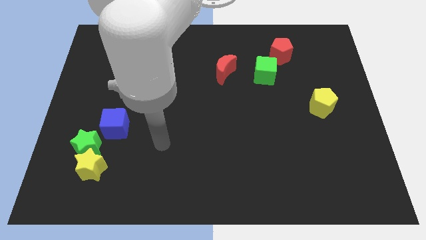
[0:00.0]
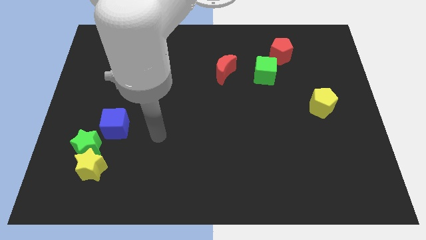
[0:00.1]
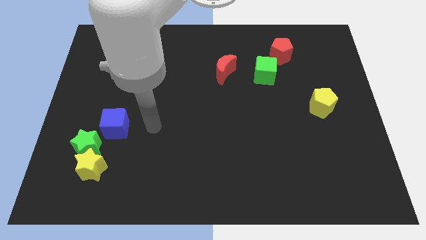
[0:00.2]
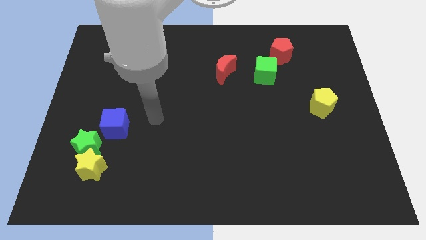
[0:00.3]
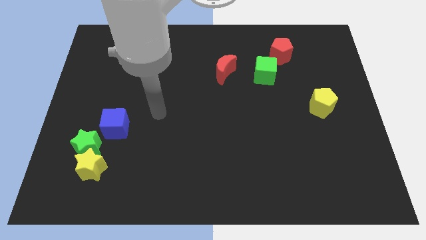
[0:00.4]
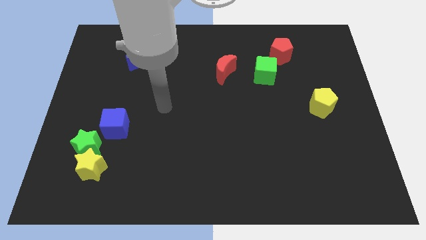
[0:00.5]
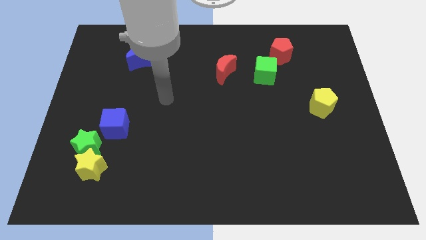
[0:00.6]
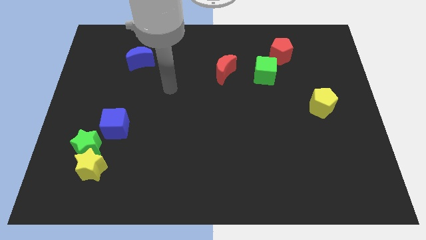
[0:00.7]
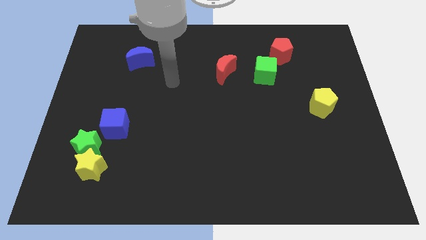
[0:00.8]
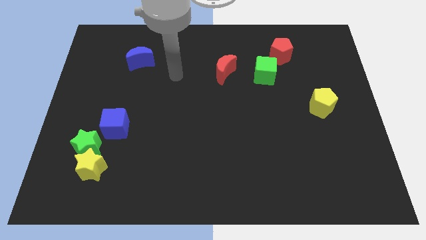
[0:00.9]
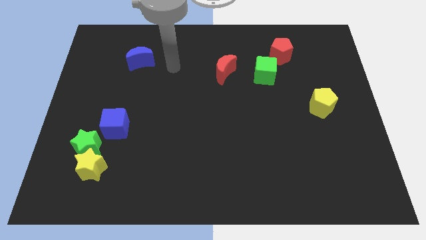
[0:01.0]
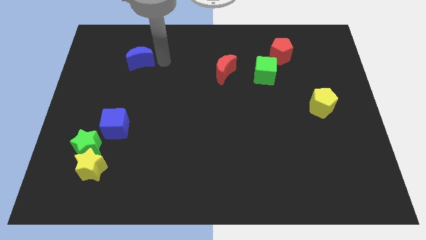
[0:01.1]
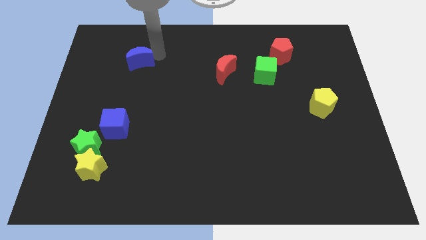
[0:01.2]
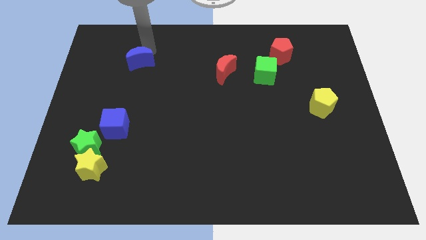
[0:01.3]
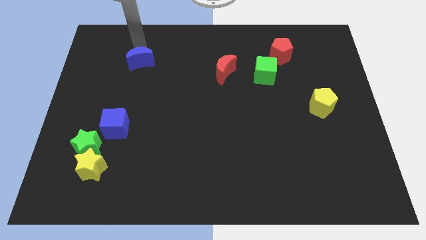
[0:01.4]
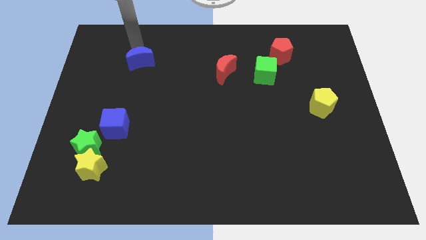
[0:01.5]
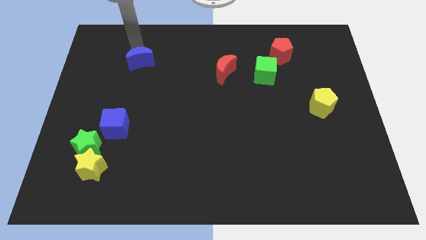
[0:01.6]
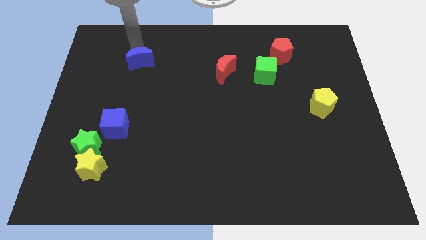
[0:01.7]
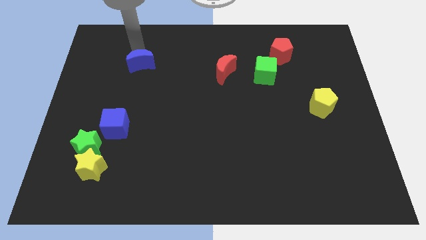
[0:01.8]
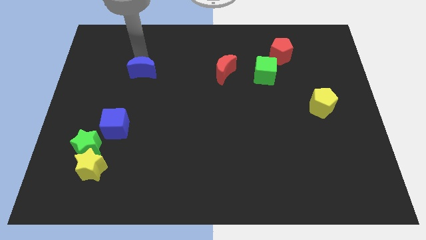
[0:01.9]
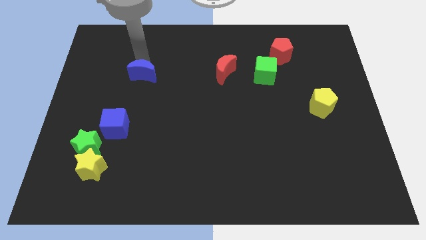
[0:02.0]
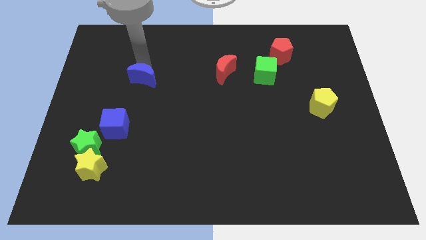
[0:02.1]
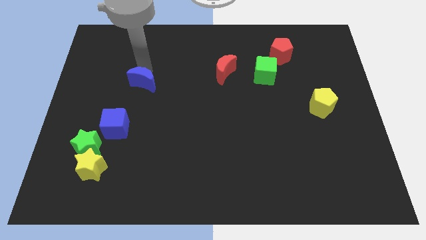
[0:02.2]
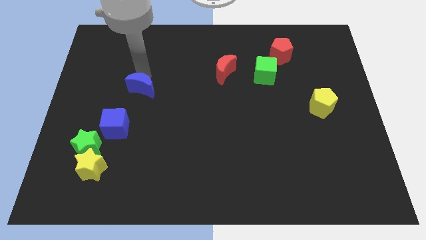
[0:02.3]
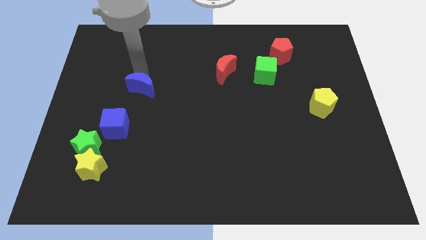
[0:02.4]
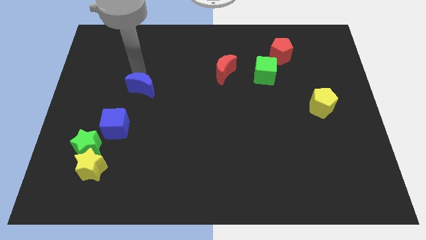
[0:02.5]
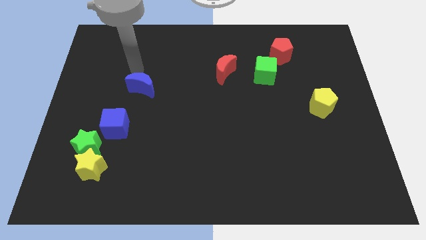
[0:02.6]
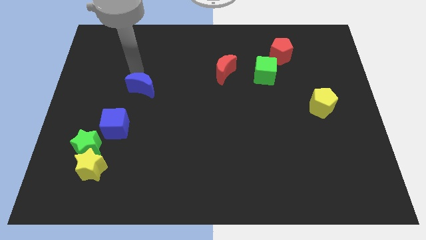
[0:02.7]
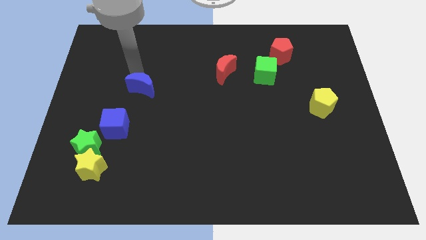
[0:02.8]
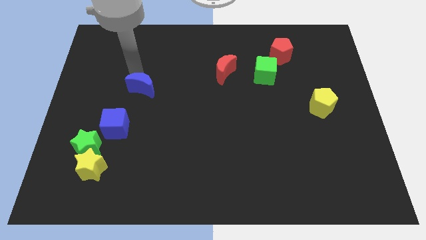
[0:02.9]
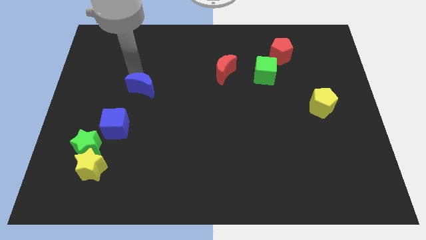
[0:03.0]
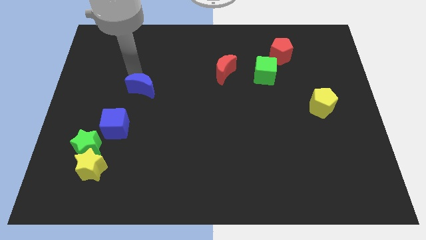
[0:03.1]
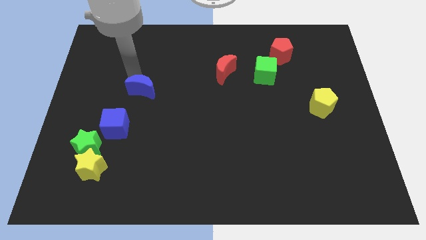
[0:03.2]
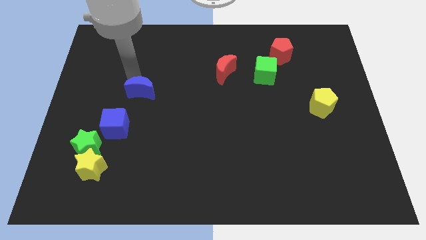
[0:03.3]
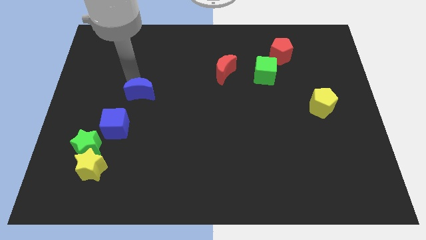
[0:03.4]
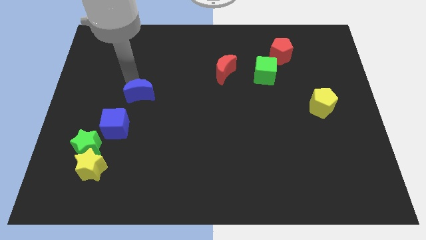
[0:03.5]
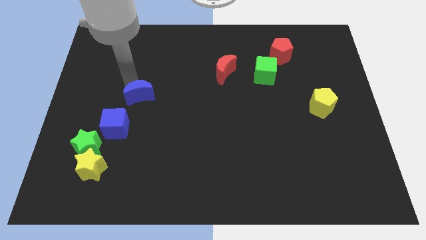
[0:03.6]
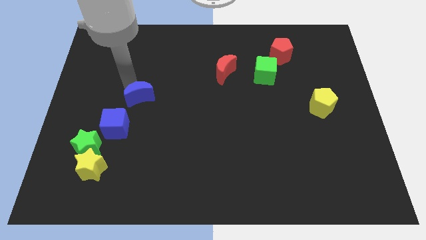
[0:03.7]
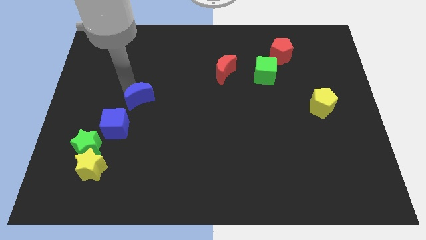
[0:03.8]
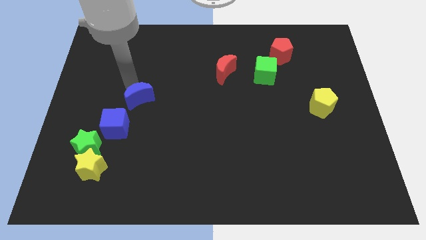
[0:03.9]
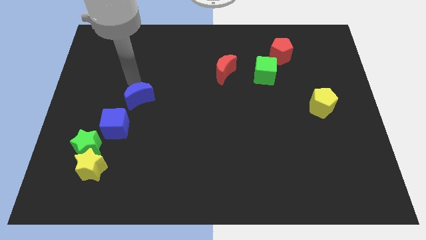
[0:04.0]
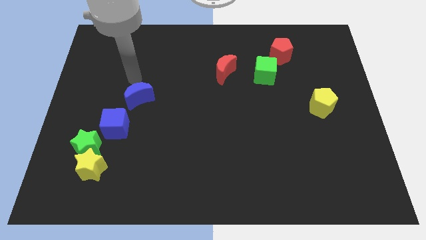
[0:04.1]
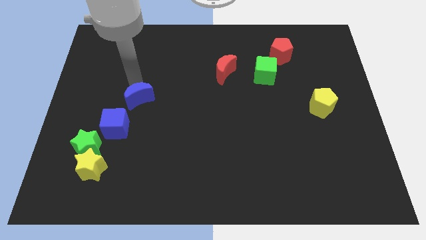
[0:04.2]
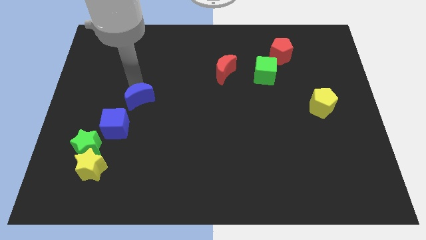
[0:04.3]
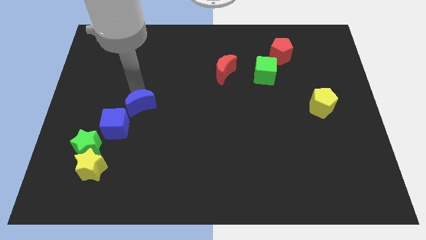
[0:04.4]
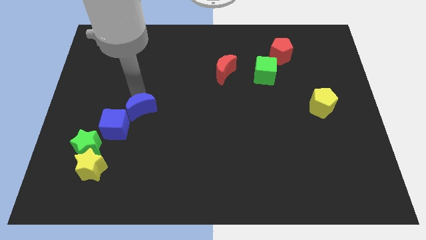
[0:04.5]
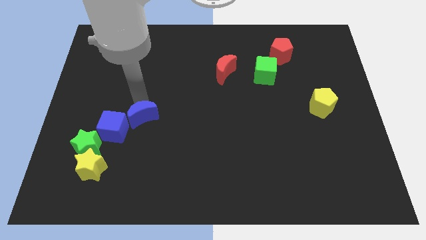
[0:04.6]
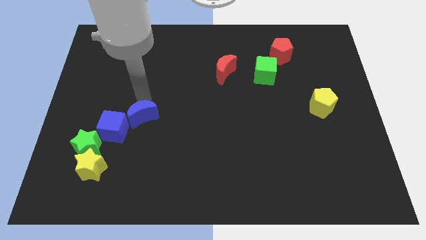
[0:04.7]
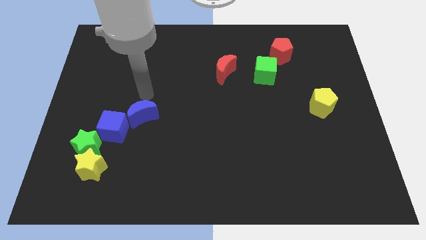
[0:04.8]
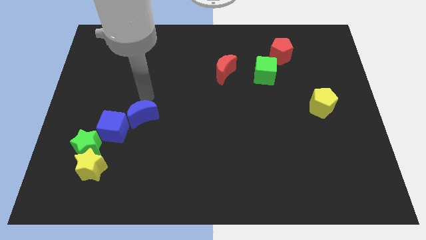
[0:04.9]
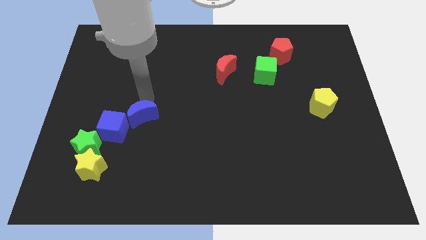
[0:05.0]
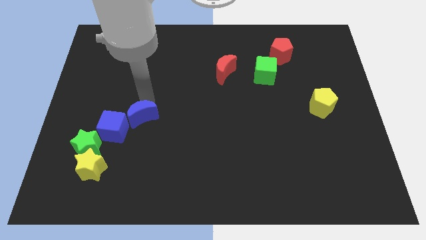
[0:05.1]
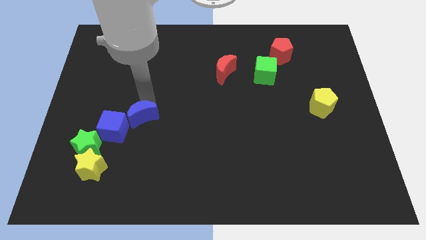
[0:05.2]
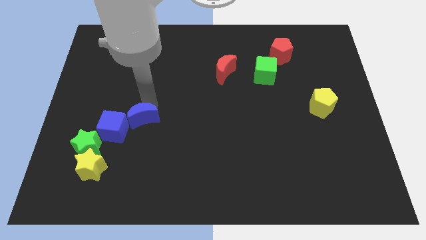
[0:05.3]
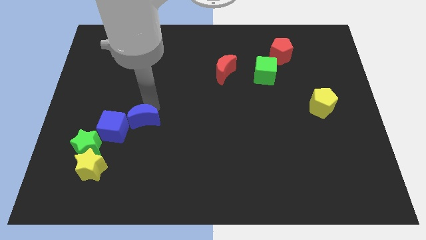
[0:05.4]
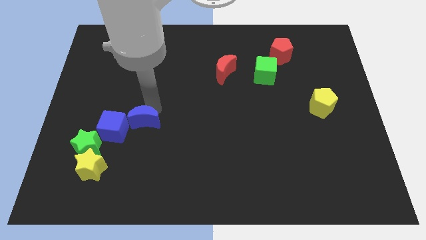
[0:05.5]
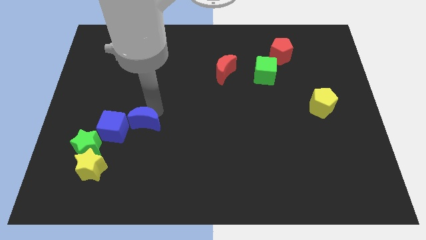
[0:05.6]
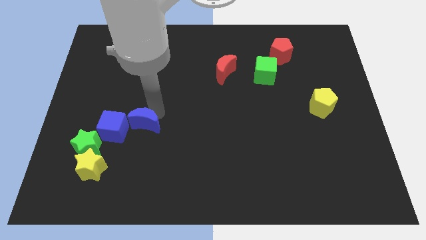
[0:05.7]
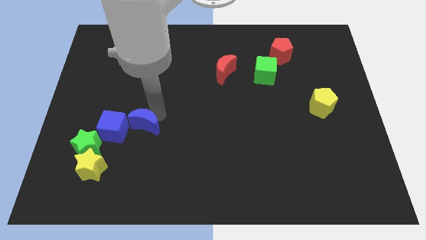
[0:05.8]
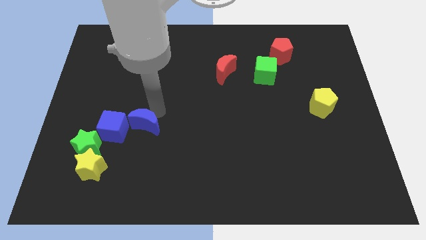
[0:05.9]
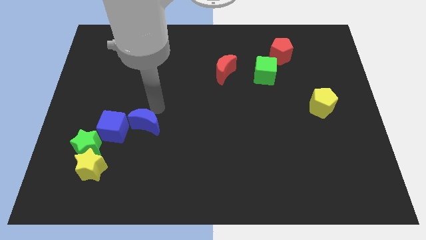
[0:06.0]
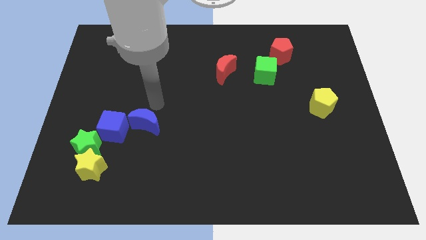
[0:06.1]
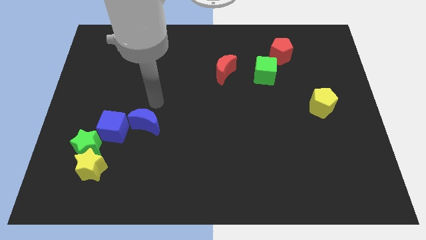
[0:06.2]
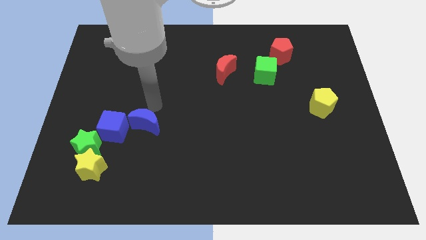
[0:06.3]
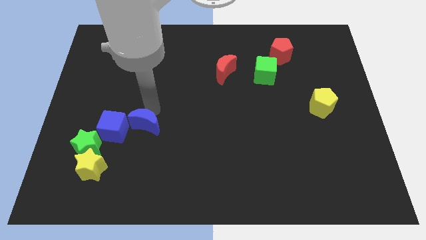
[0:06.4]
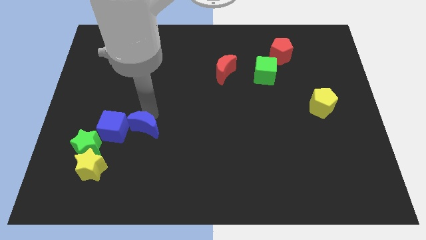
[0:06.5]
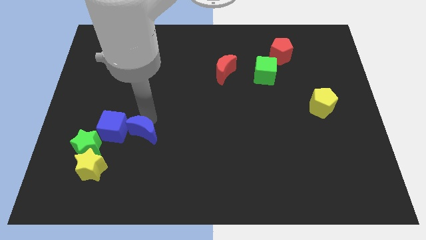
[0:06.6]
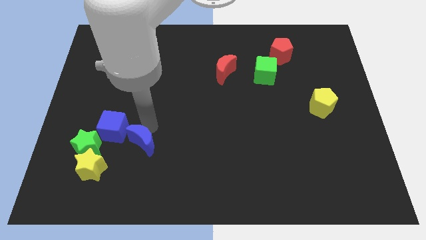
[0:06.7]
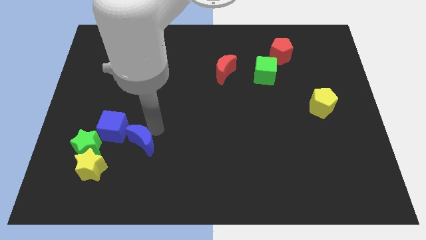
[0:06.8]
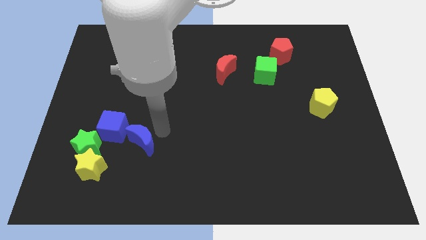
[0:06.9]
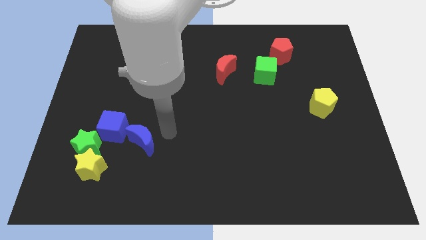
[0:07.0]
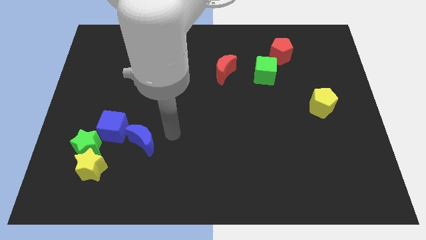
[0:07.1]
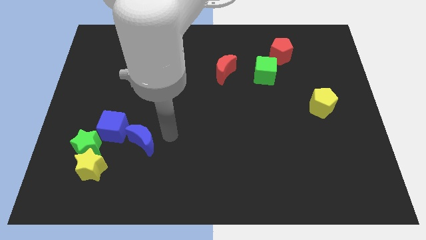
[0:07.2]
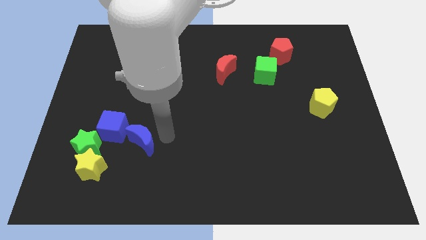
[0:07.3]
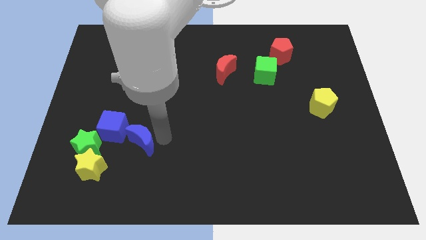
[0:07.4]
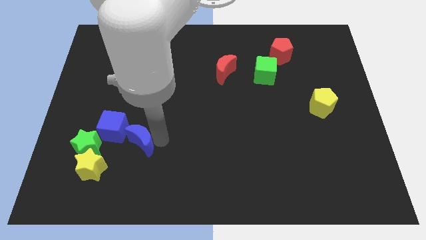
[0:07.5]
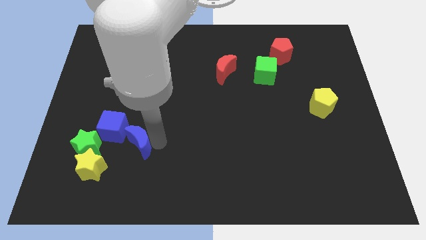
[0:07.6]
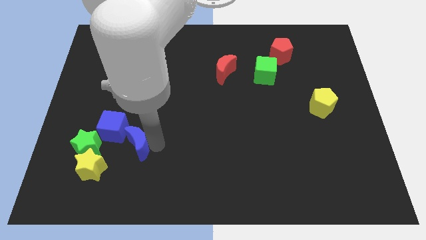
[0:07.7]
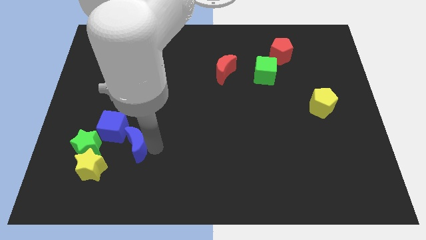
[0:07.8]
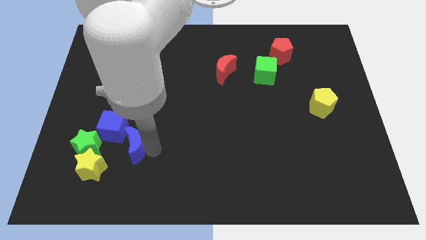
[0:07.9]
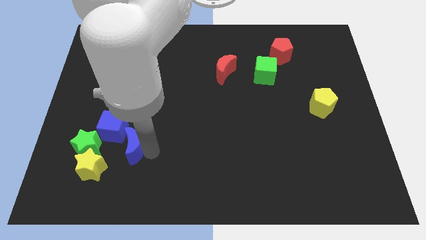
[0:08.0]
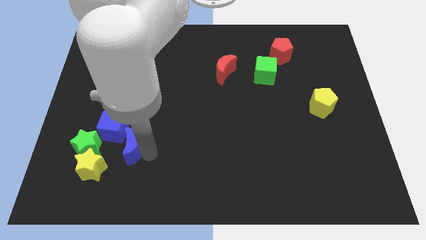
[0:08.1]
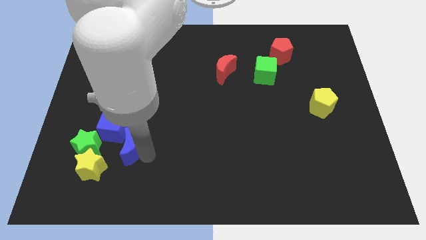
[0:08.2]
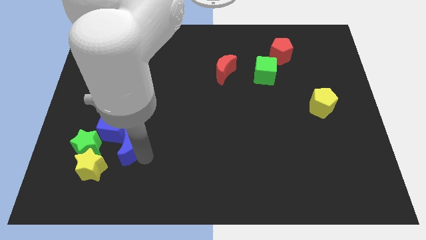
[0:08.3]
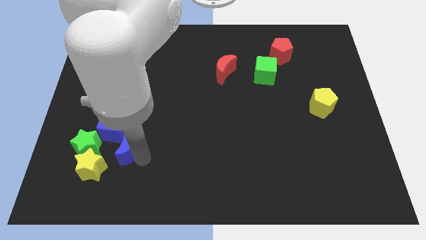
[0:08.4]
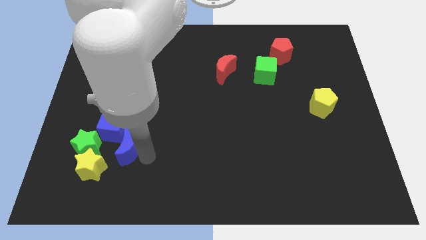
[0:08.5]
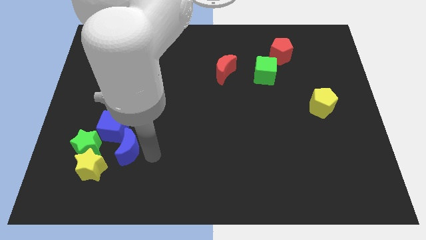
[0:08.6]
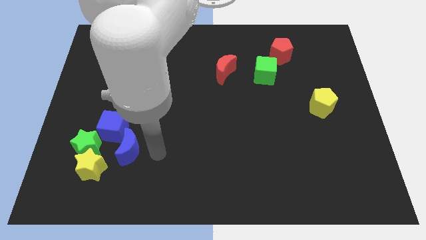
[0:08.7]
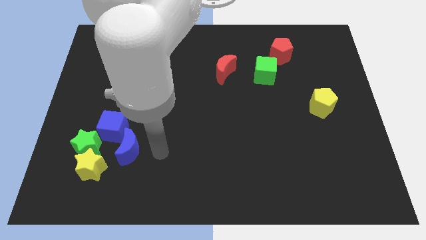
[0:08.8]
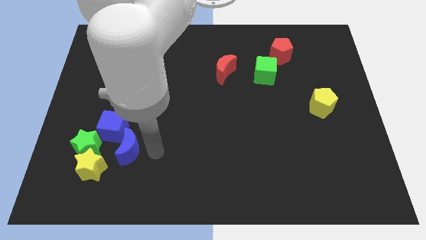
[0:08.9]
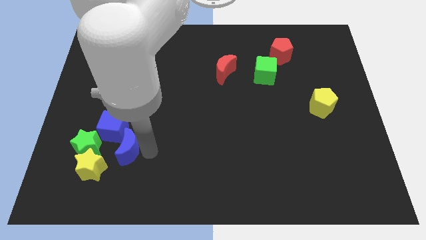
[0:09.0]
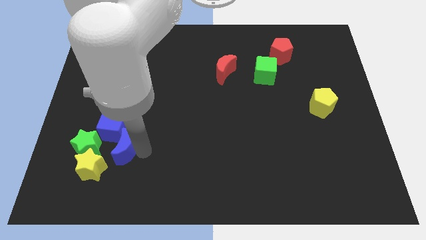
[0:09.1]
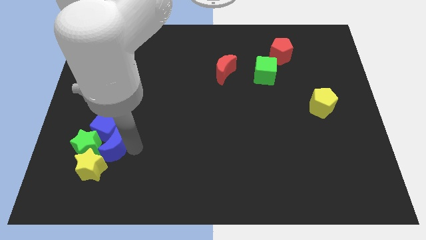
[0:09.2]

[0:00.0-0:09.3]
slide the blue moon next to the yellow star
